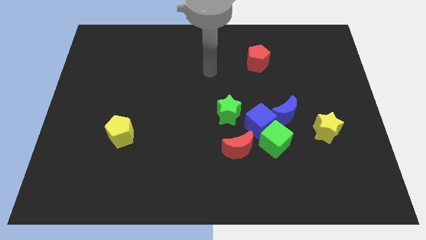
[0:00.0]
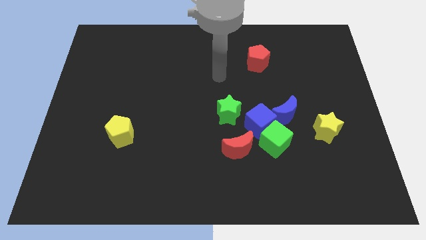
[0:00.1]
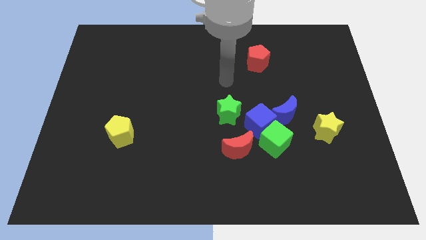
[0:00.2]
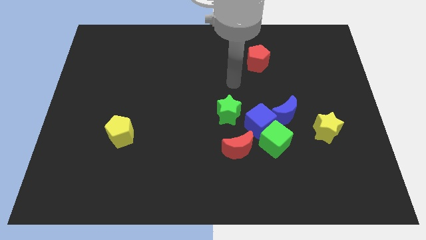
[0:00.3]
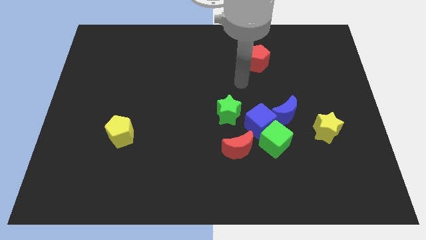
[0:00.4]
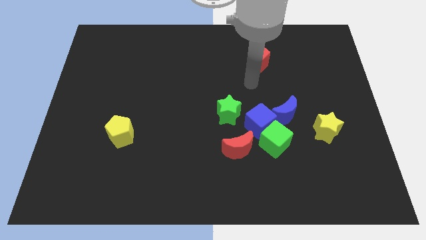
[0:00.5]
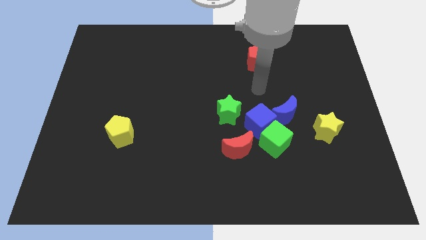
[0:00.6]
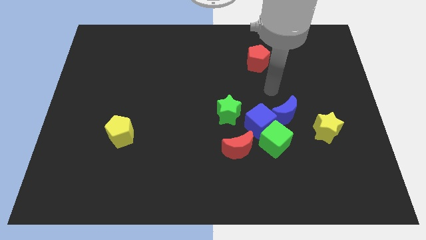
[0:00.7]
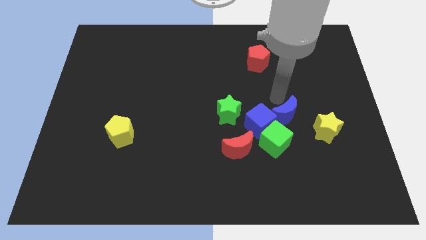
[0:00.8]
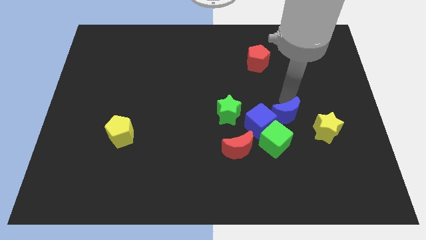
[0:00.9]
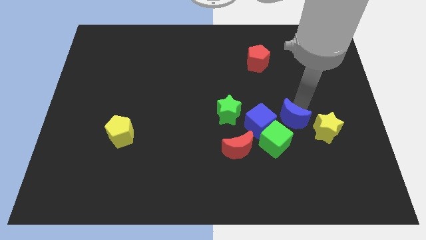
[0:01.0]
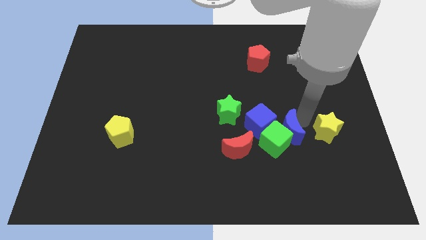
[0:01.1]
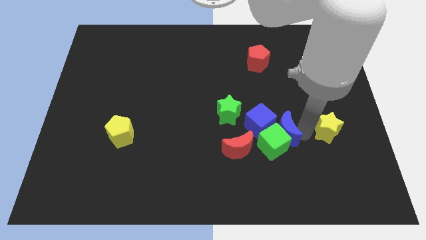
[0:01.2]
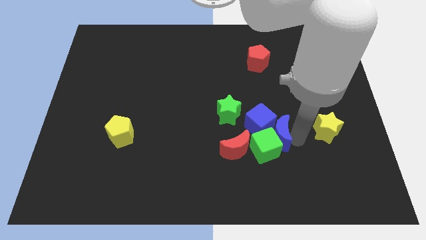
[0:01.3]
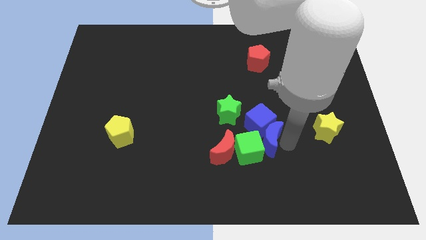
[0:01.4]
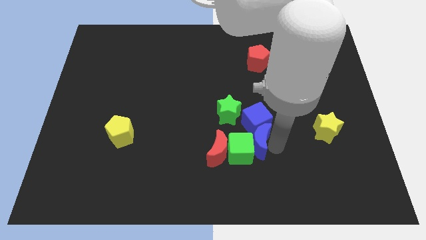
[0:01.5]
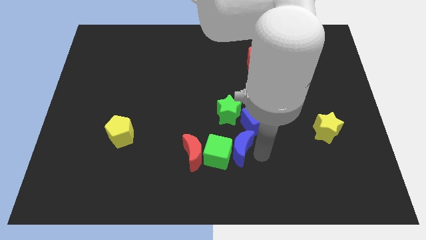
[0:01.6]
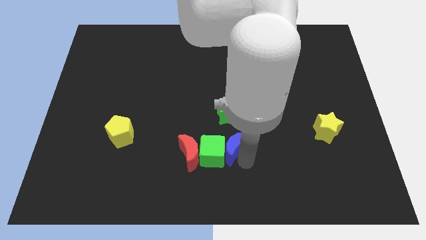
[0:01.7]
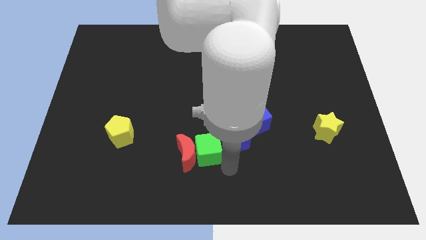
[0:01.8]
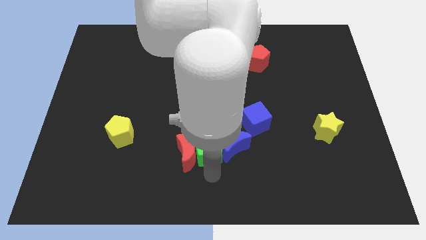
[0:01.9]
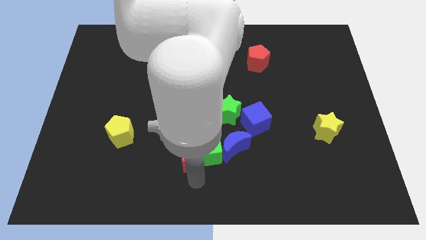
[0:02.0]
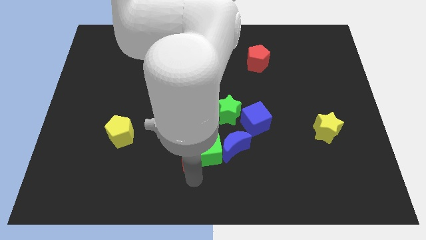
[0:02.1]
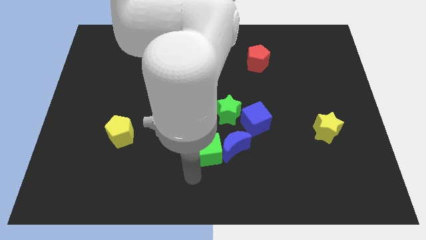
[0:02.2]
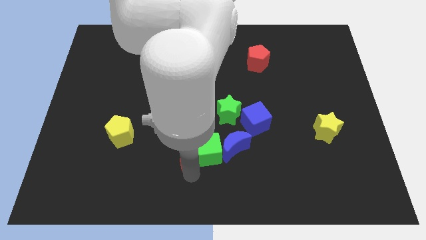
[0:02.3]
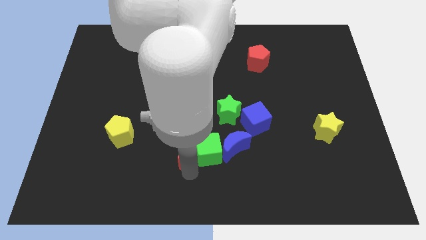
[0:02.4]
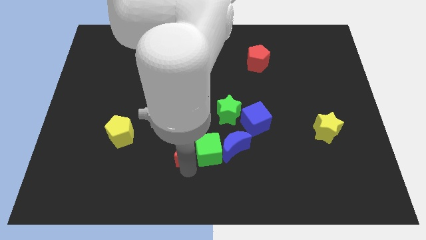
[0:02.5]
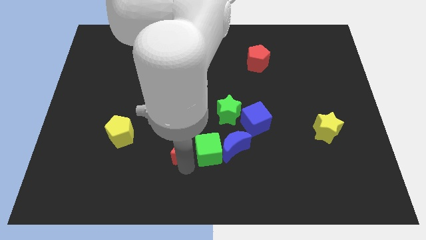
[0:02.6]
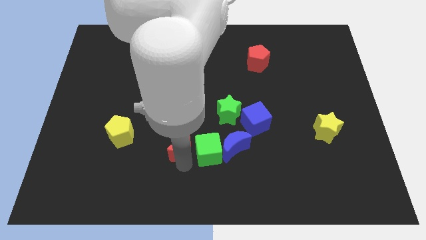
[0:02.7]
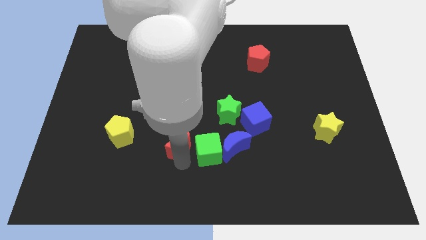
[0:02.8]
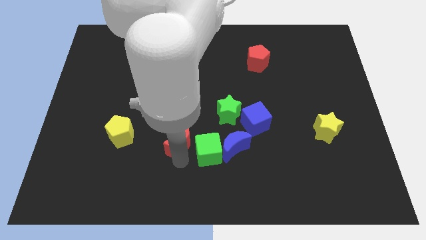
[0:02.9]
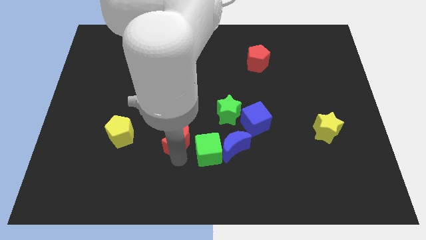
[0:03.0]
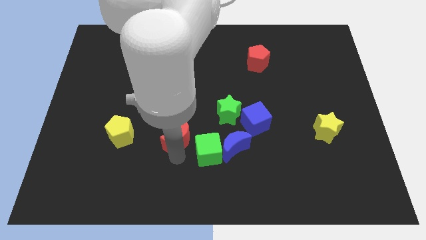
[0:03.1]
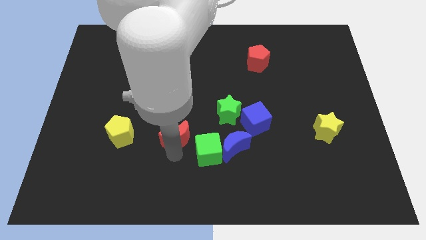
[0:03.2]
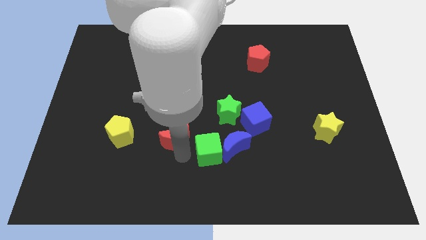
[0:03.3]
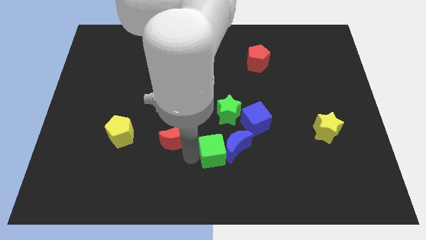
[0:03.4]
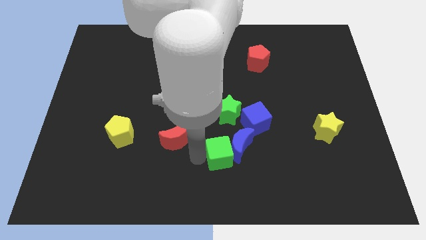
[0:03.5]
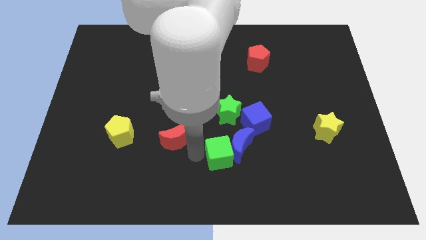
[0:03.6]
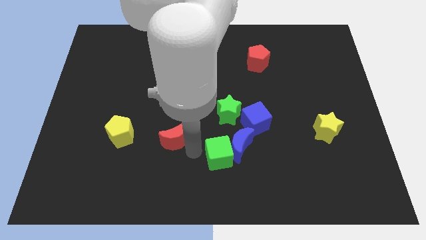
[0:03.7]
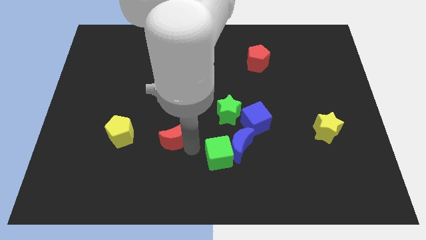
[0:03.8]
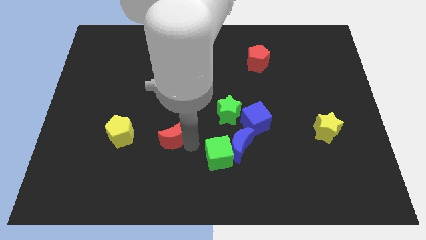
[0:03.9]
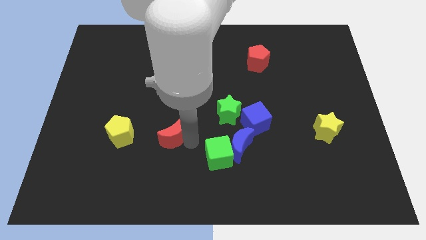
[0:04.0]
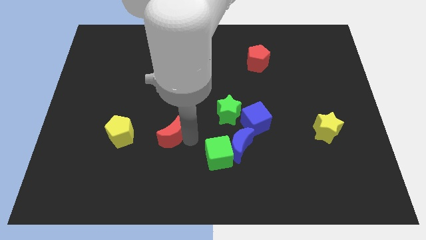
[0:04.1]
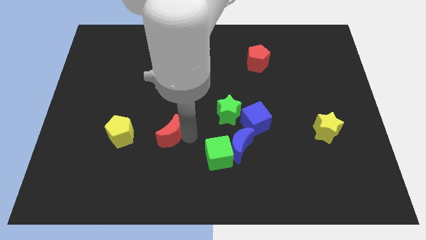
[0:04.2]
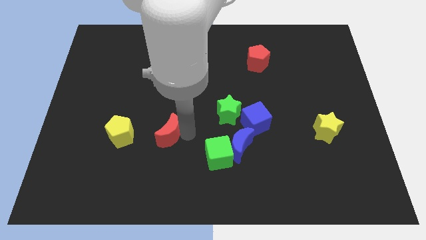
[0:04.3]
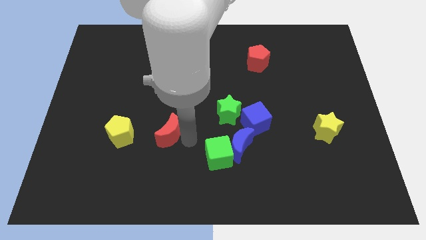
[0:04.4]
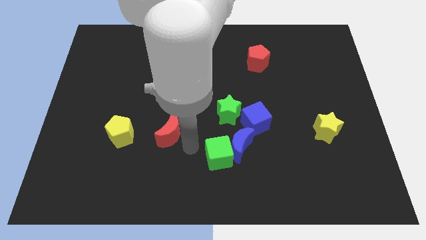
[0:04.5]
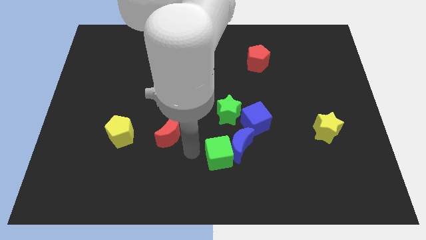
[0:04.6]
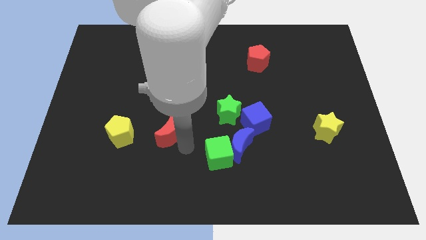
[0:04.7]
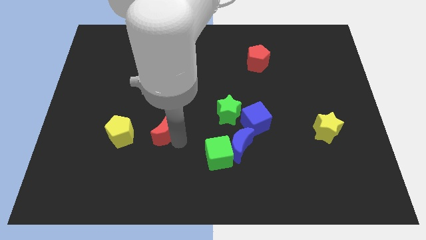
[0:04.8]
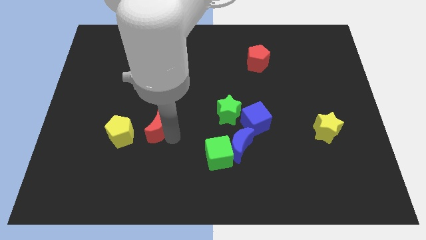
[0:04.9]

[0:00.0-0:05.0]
put the red moon to the top right of the yellow pentagon

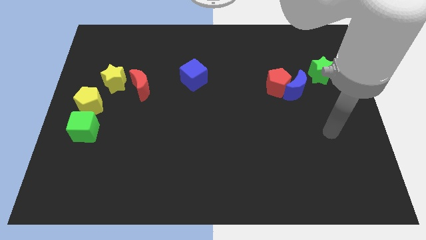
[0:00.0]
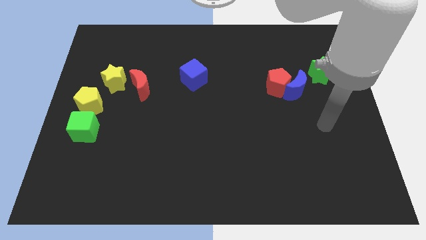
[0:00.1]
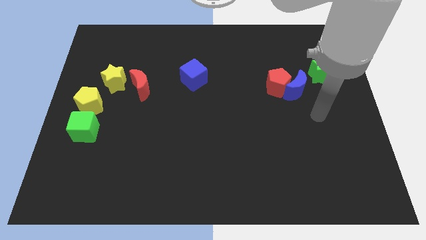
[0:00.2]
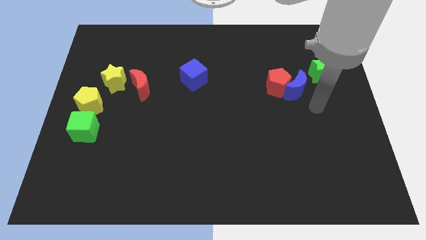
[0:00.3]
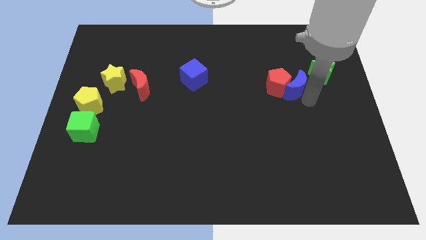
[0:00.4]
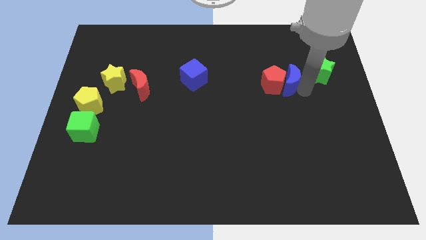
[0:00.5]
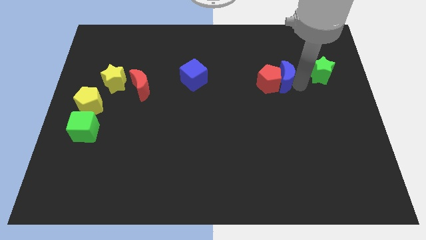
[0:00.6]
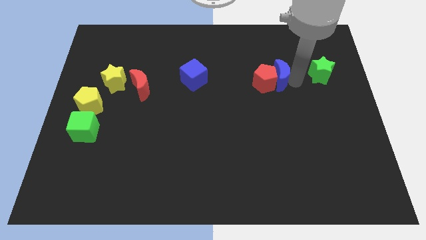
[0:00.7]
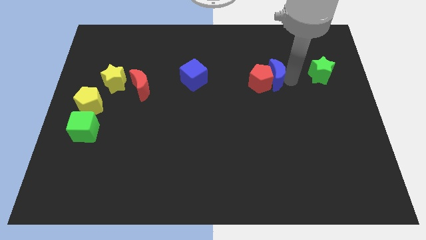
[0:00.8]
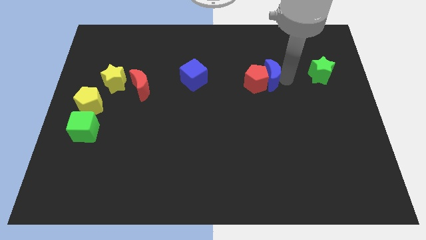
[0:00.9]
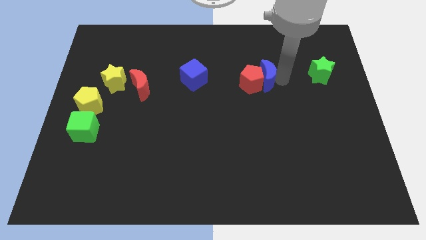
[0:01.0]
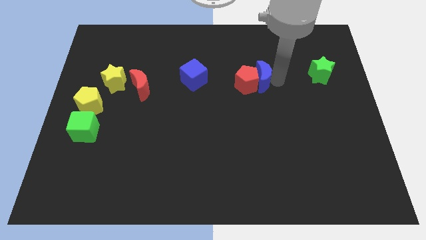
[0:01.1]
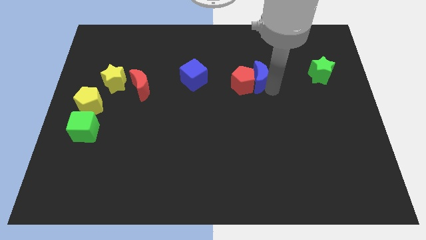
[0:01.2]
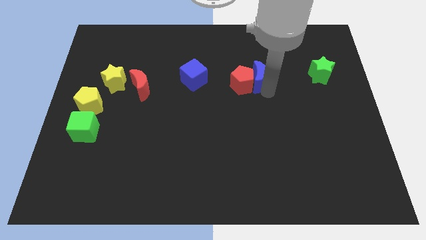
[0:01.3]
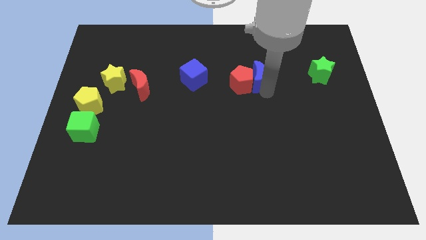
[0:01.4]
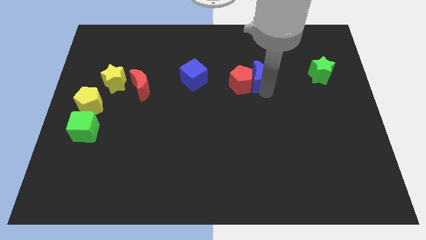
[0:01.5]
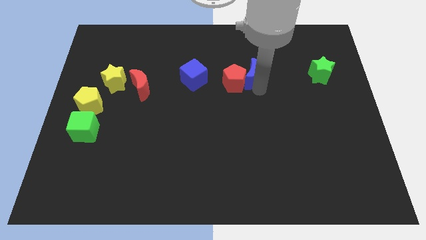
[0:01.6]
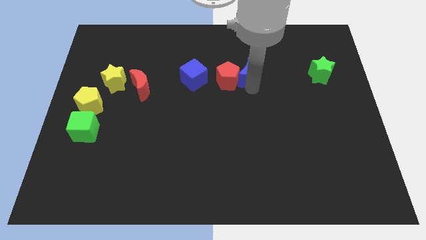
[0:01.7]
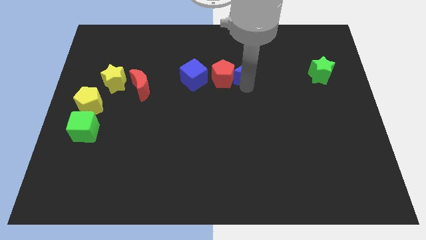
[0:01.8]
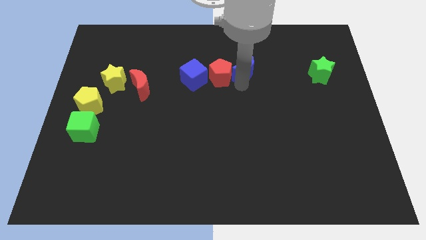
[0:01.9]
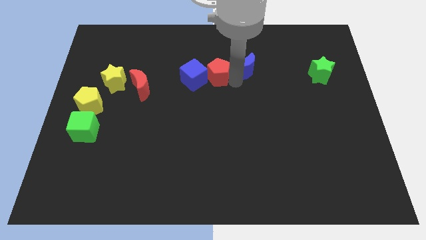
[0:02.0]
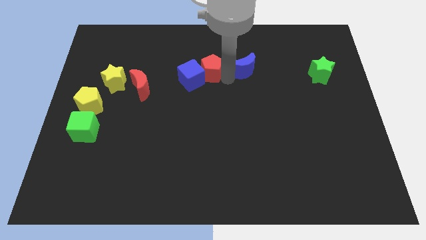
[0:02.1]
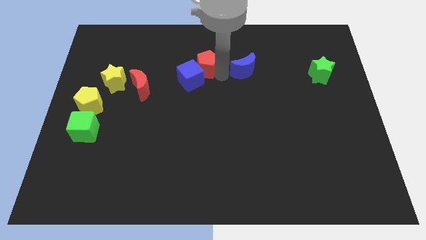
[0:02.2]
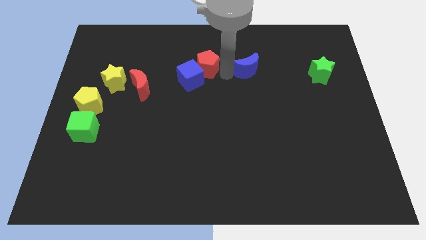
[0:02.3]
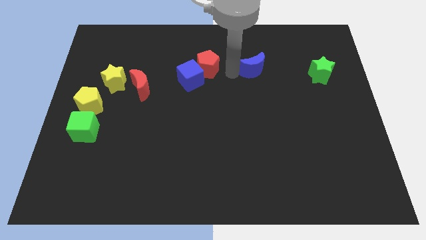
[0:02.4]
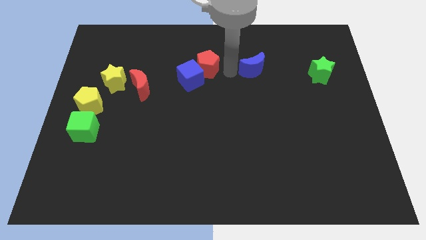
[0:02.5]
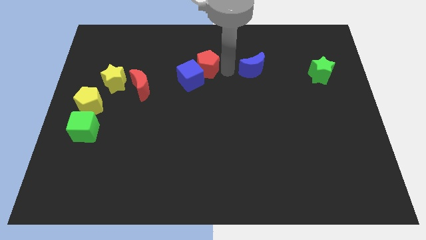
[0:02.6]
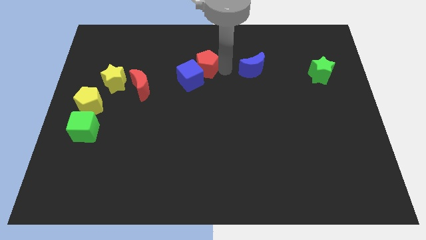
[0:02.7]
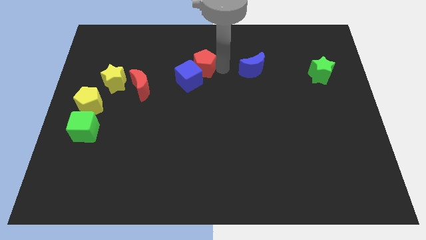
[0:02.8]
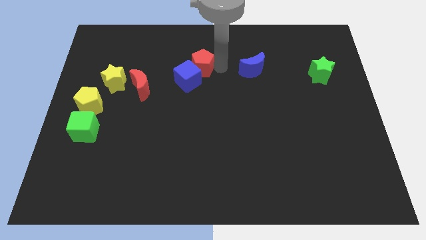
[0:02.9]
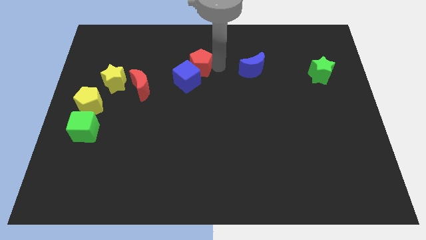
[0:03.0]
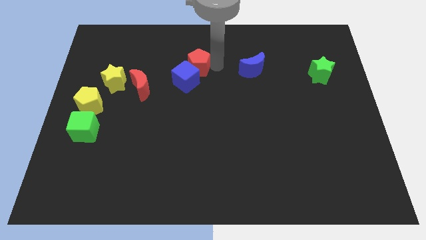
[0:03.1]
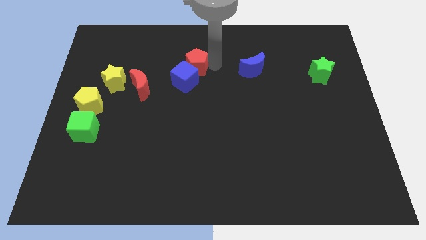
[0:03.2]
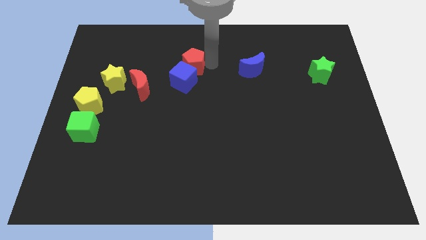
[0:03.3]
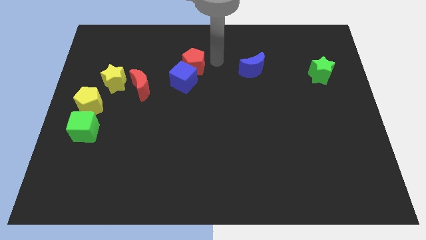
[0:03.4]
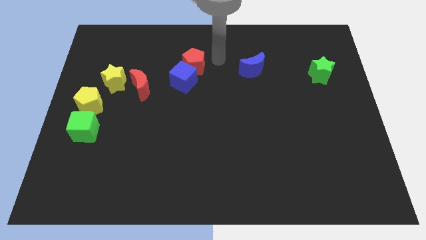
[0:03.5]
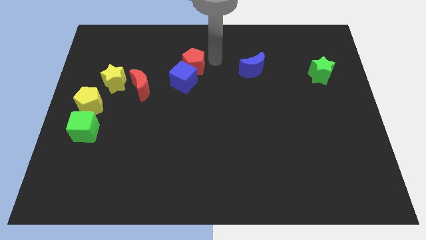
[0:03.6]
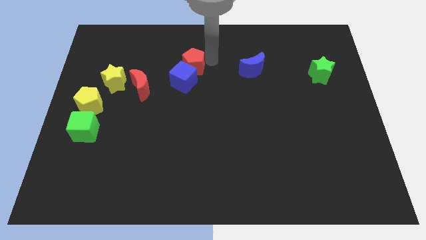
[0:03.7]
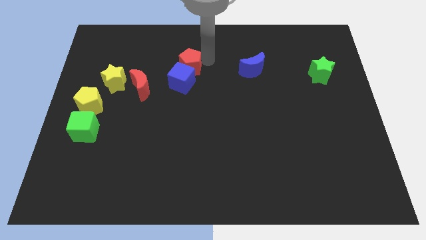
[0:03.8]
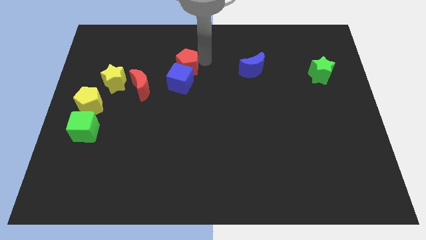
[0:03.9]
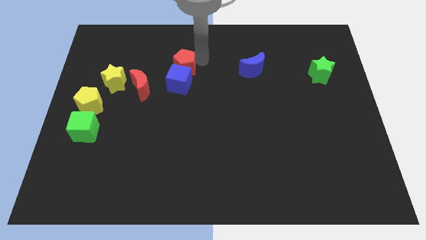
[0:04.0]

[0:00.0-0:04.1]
slide the red pentagon to the top right side of the red moon
